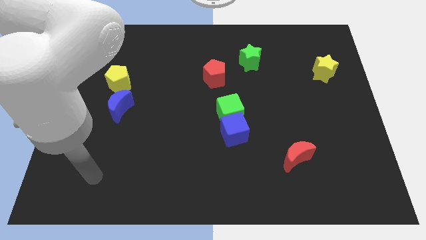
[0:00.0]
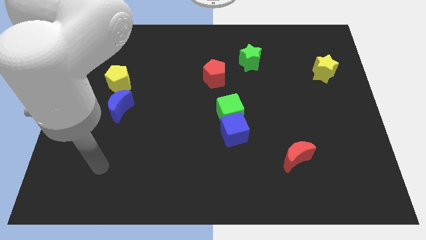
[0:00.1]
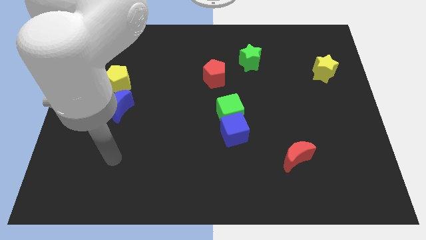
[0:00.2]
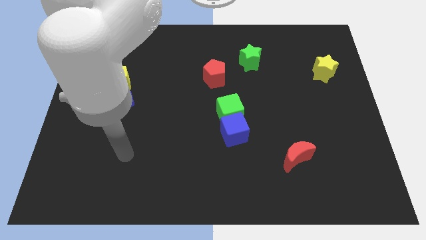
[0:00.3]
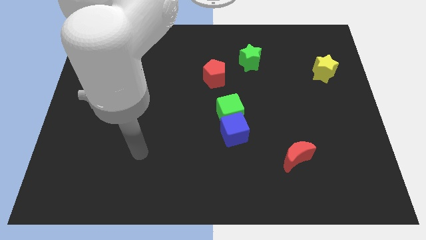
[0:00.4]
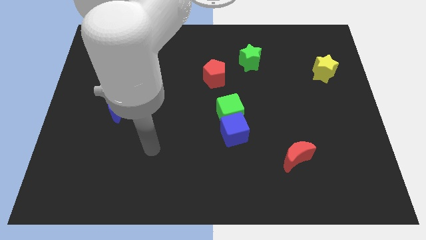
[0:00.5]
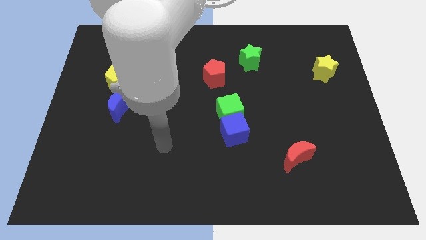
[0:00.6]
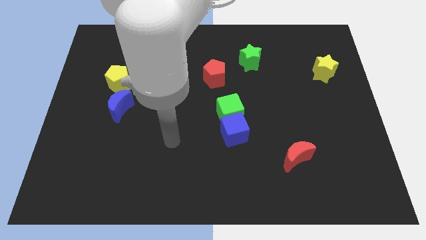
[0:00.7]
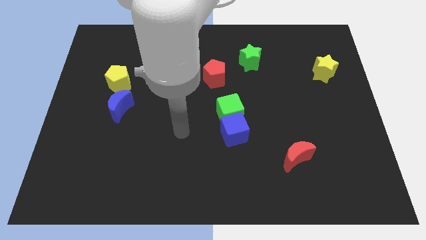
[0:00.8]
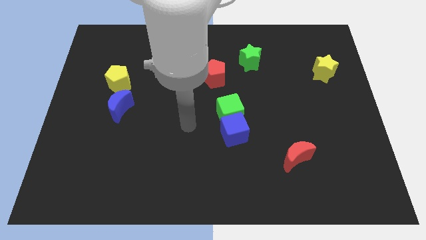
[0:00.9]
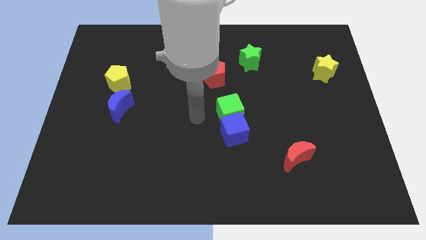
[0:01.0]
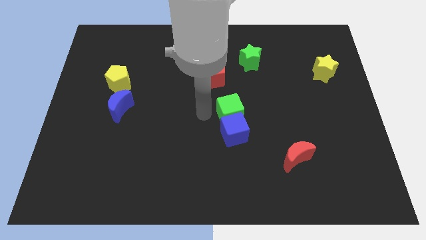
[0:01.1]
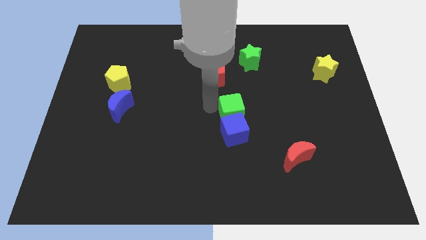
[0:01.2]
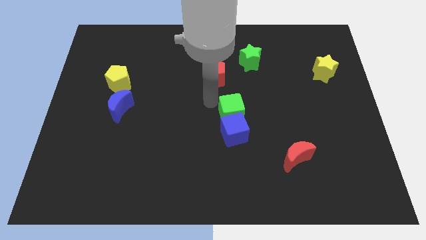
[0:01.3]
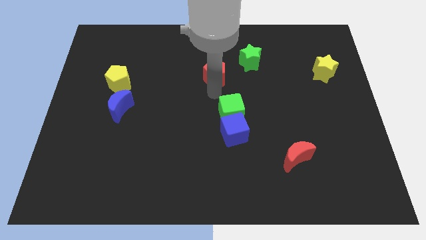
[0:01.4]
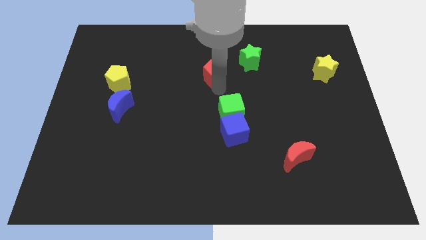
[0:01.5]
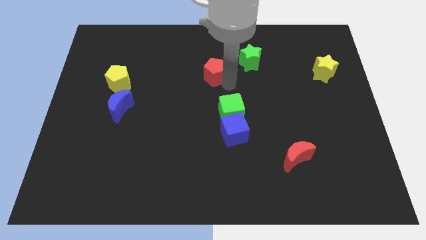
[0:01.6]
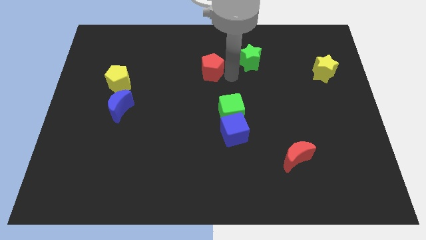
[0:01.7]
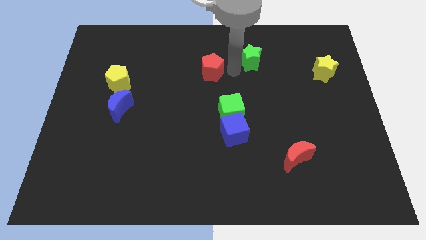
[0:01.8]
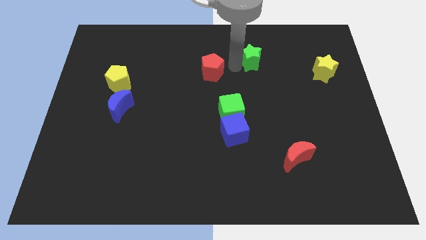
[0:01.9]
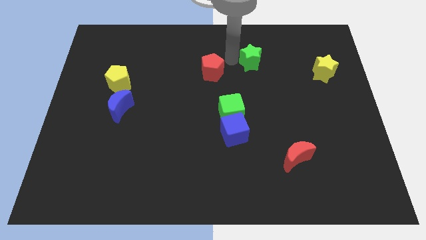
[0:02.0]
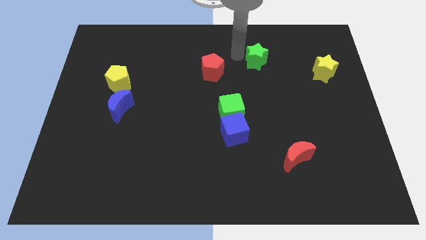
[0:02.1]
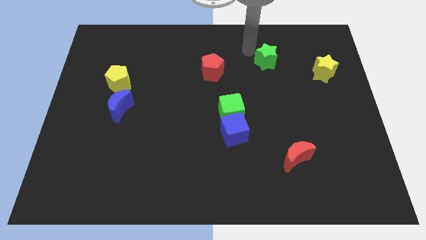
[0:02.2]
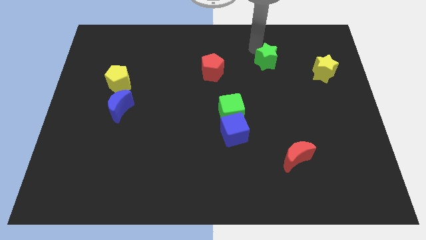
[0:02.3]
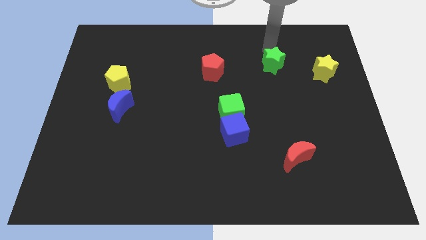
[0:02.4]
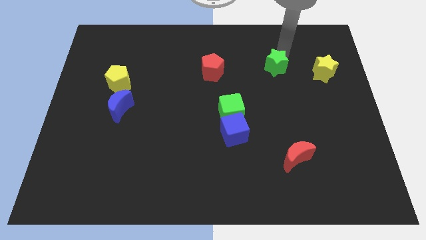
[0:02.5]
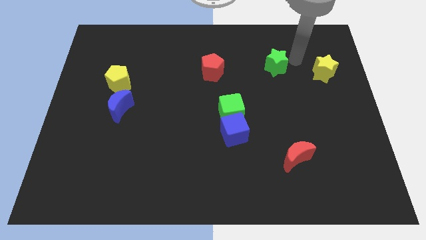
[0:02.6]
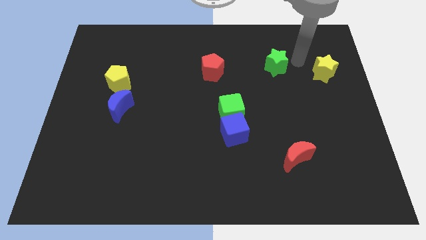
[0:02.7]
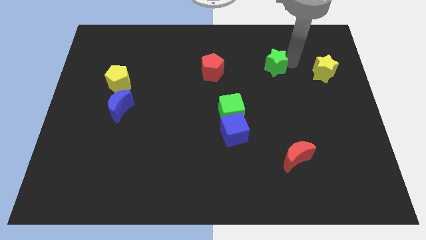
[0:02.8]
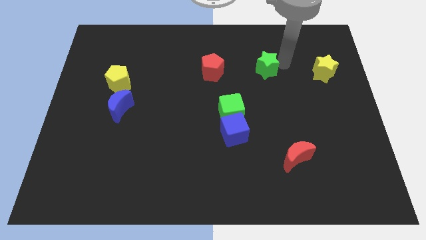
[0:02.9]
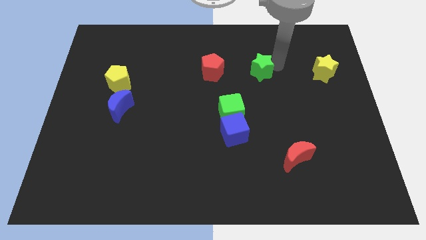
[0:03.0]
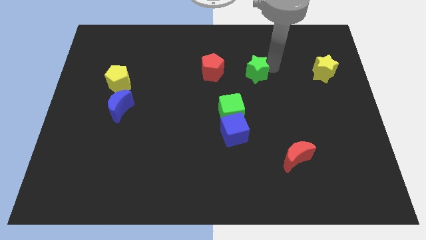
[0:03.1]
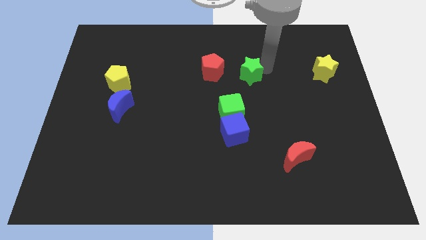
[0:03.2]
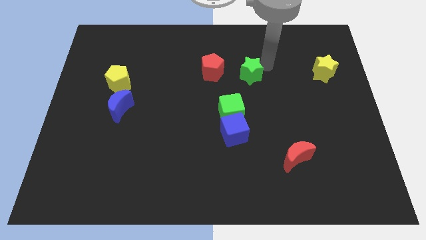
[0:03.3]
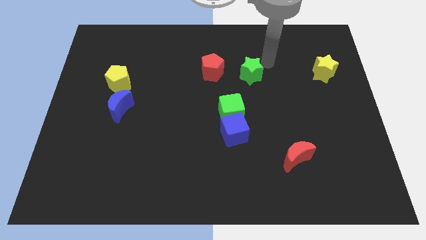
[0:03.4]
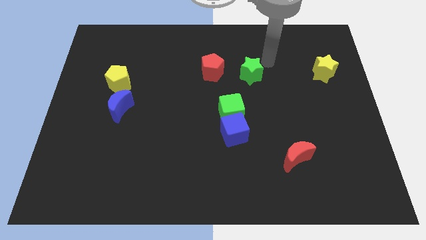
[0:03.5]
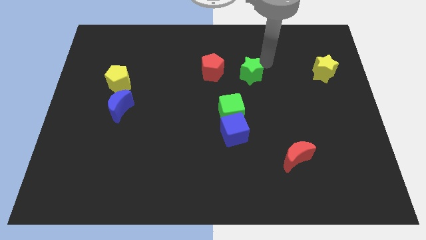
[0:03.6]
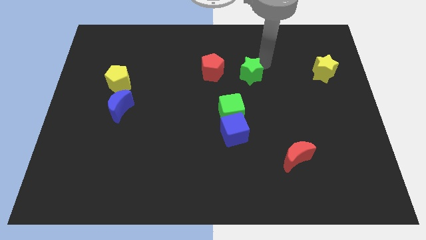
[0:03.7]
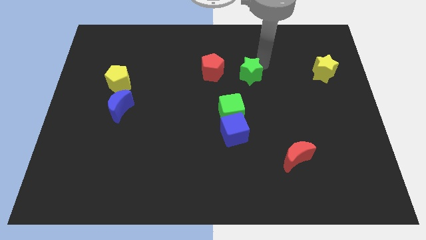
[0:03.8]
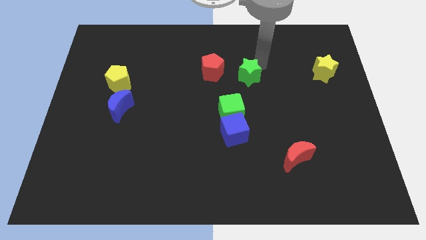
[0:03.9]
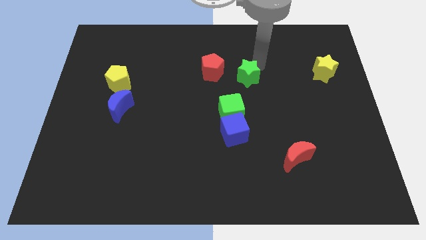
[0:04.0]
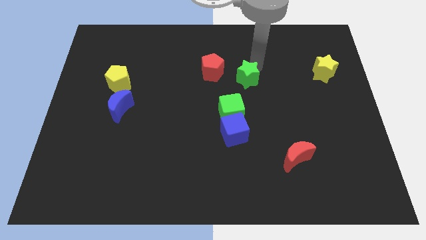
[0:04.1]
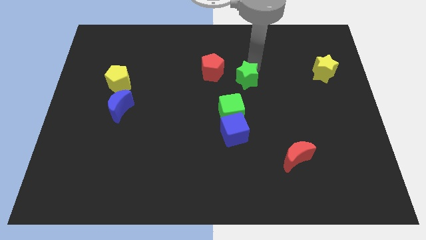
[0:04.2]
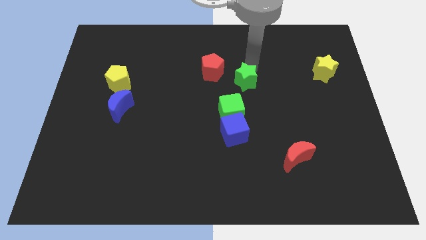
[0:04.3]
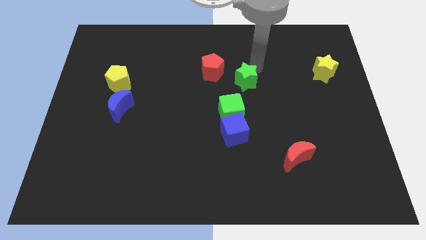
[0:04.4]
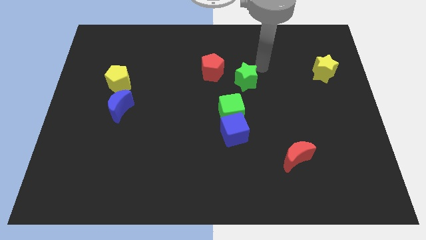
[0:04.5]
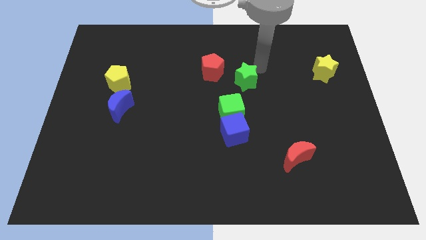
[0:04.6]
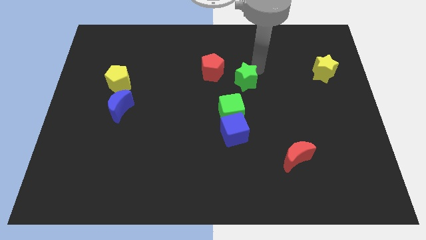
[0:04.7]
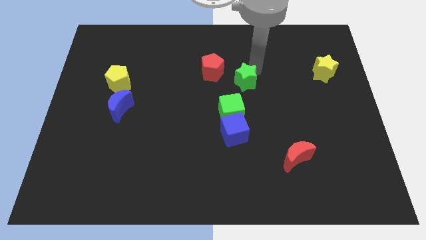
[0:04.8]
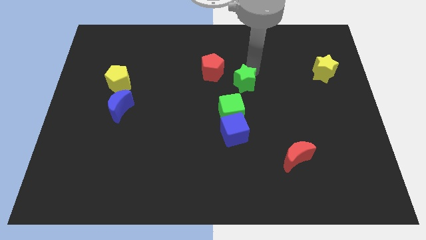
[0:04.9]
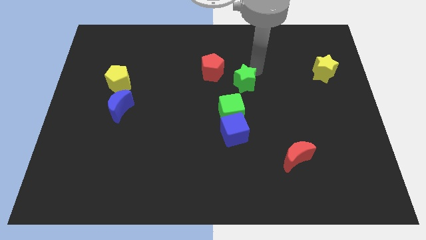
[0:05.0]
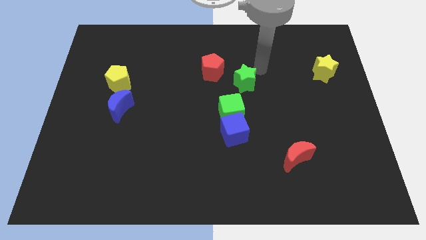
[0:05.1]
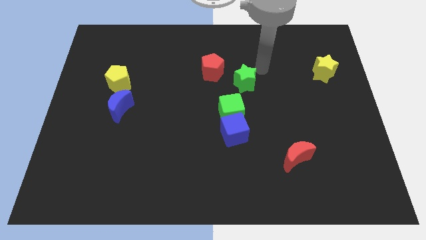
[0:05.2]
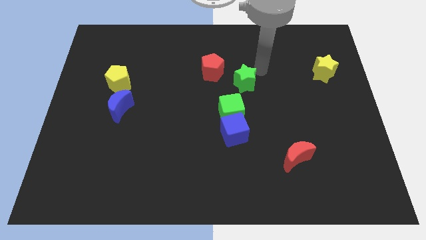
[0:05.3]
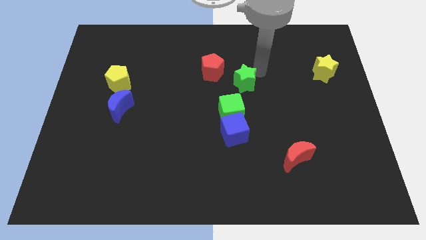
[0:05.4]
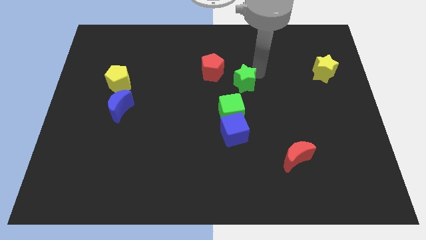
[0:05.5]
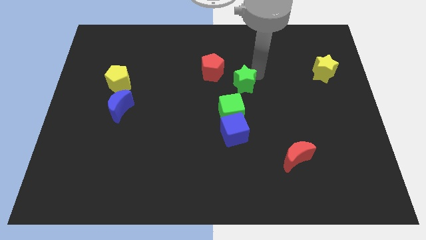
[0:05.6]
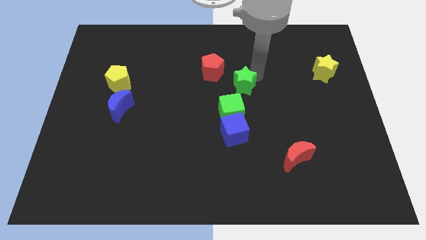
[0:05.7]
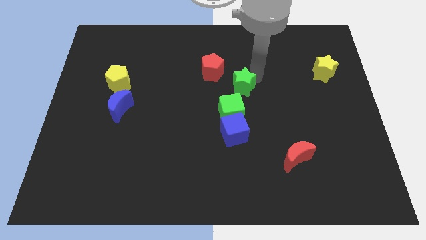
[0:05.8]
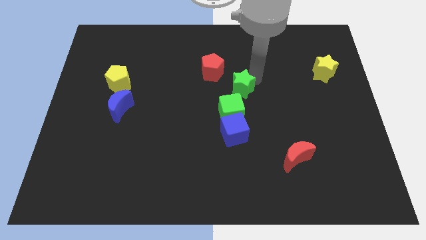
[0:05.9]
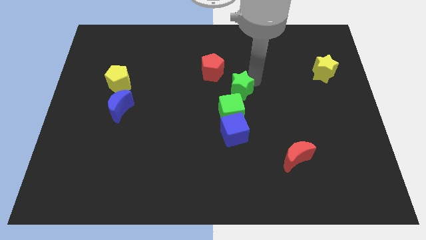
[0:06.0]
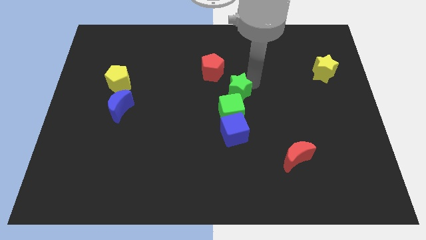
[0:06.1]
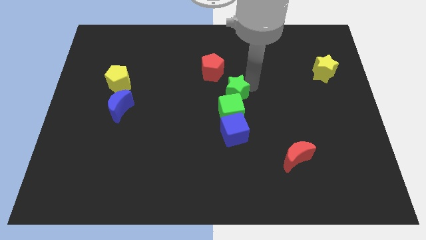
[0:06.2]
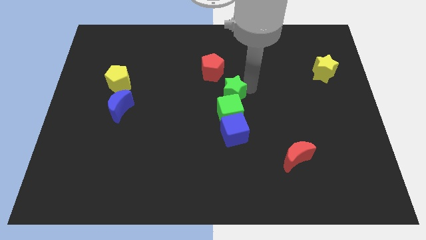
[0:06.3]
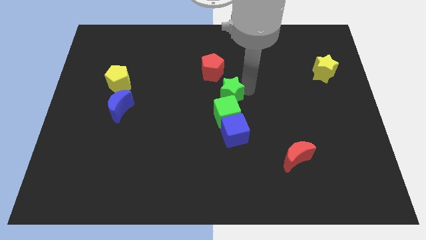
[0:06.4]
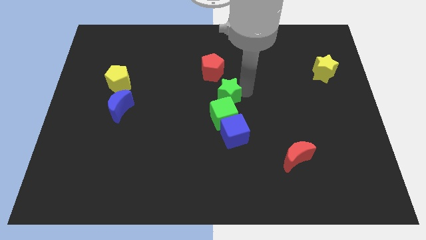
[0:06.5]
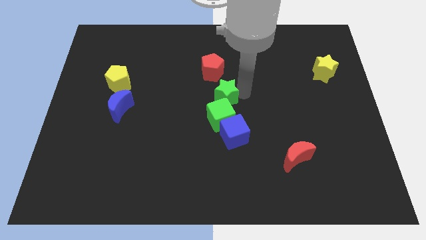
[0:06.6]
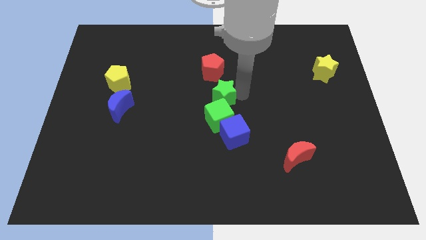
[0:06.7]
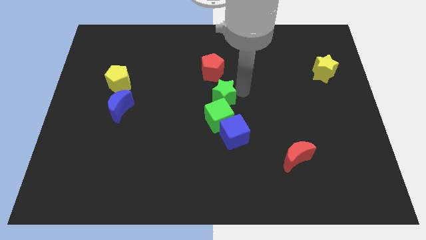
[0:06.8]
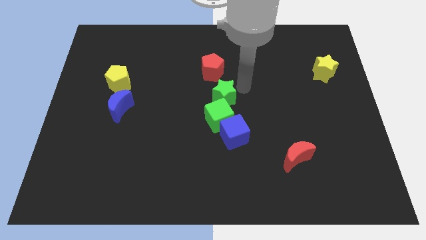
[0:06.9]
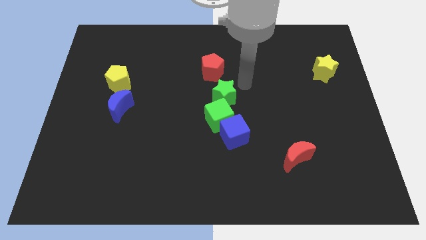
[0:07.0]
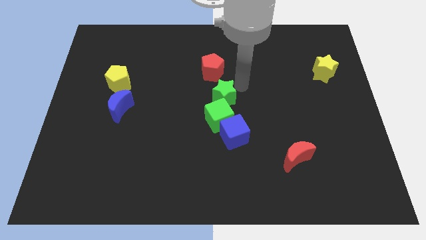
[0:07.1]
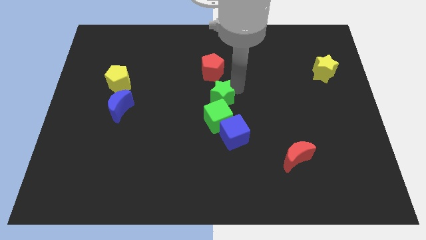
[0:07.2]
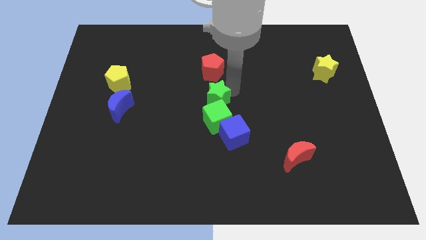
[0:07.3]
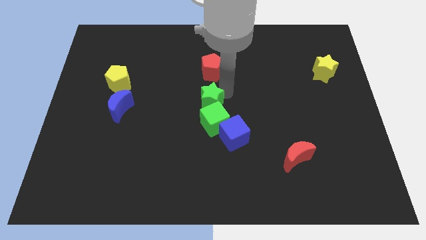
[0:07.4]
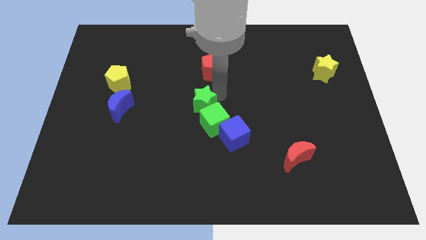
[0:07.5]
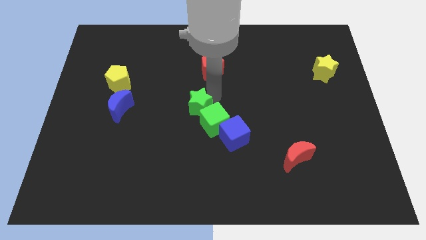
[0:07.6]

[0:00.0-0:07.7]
move the green star downwards and to the left

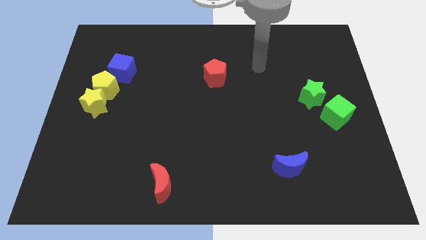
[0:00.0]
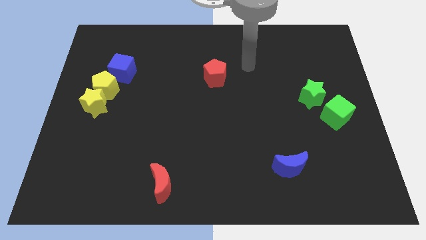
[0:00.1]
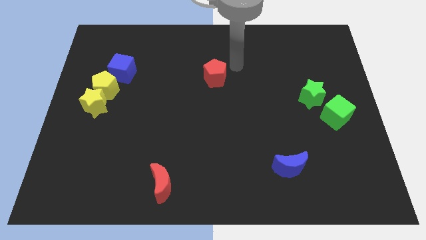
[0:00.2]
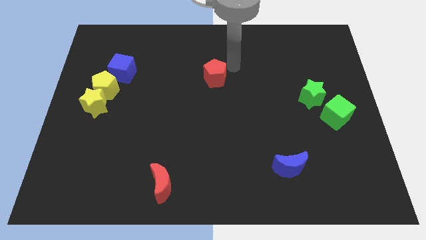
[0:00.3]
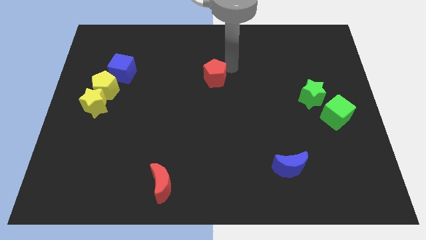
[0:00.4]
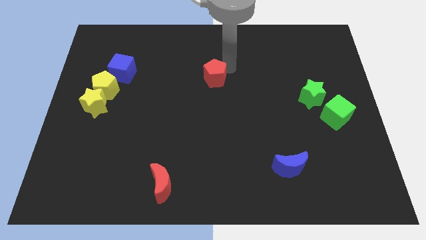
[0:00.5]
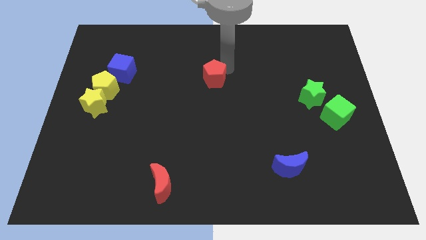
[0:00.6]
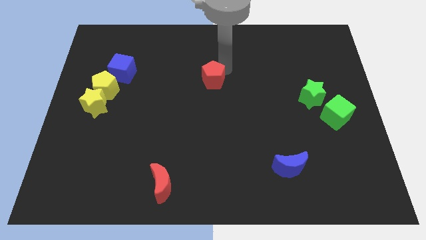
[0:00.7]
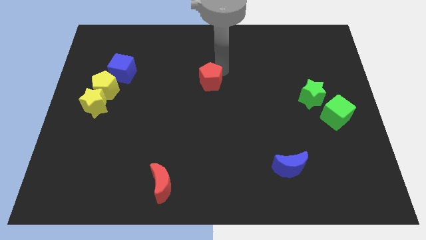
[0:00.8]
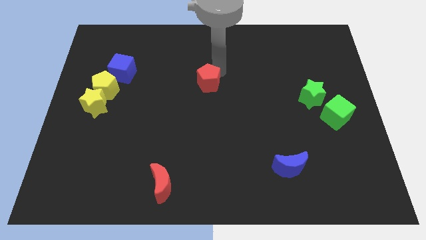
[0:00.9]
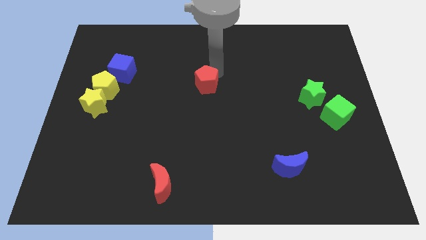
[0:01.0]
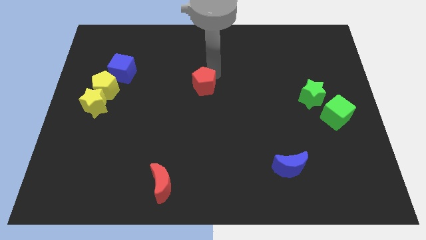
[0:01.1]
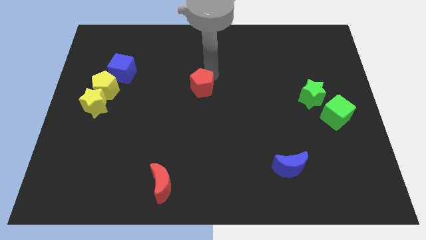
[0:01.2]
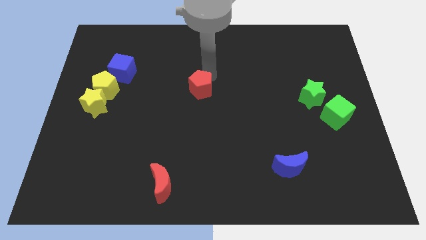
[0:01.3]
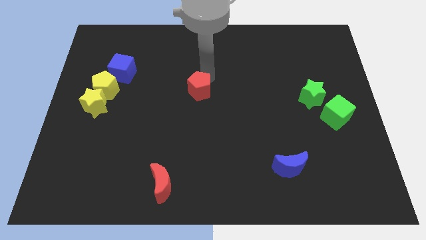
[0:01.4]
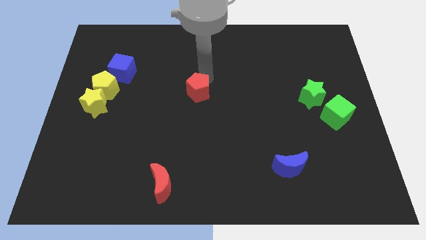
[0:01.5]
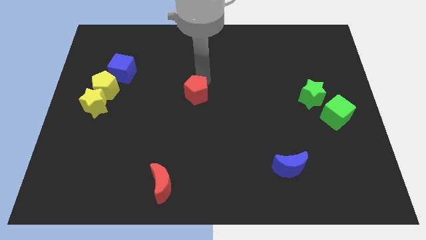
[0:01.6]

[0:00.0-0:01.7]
move the red pentagon a little diagonally downwards and to the left
